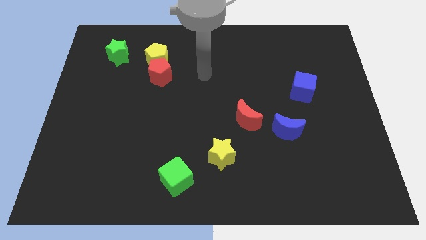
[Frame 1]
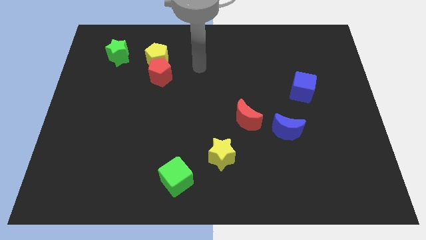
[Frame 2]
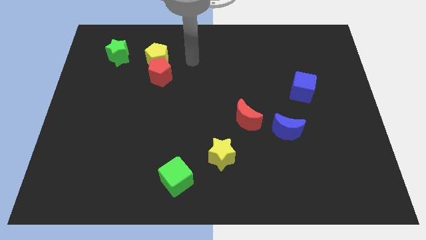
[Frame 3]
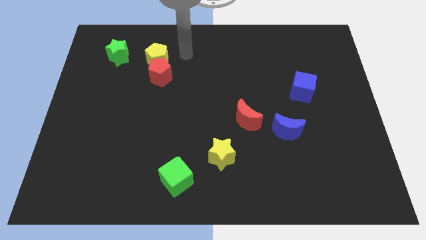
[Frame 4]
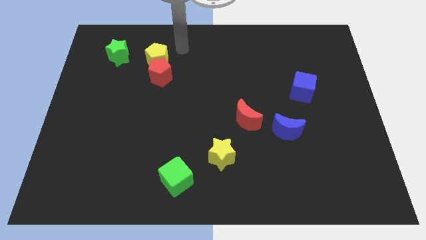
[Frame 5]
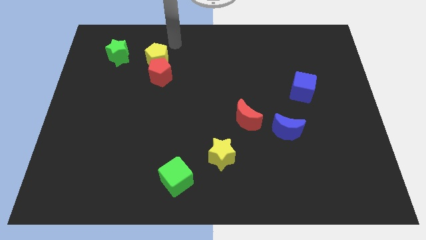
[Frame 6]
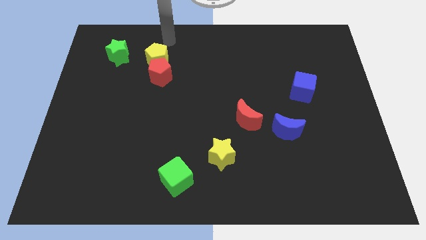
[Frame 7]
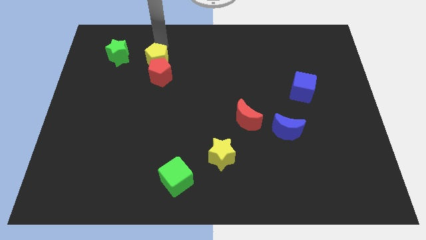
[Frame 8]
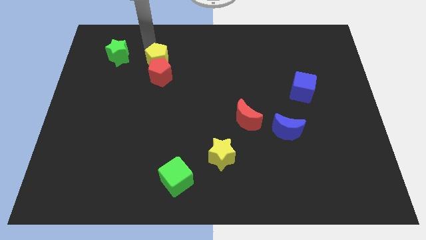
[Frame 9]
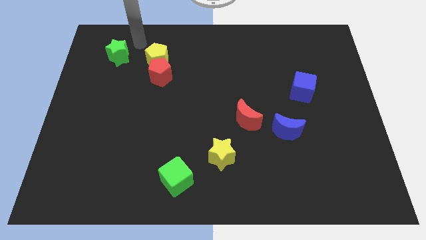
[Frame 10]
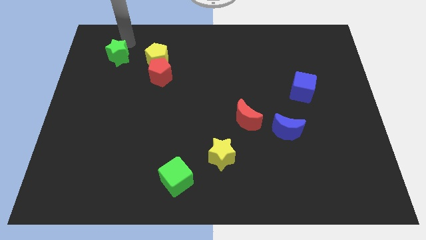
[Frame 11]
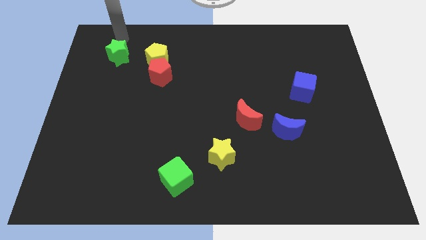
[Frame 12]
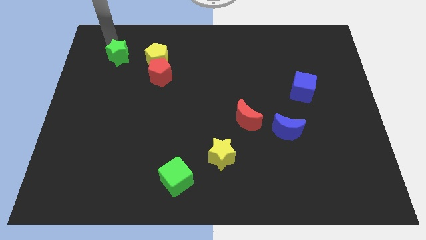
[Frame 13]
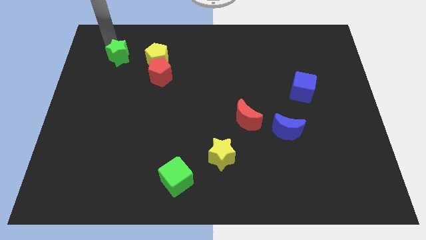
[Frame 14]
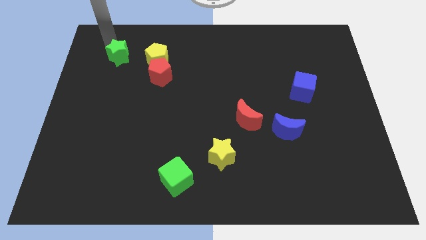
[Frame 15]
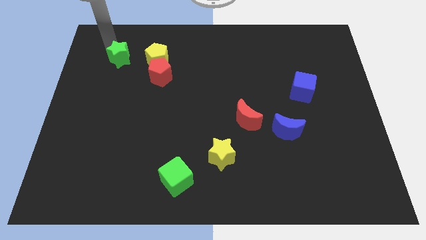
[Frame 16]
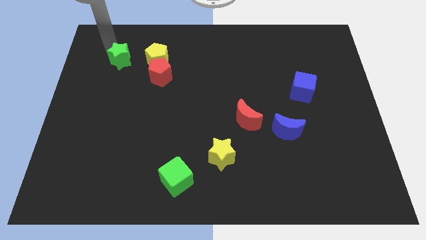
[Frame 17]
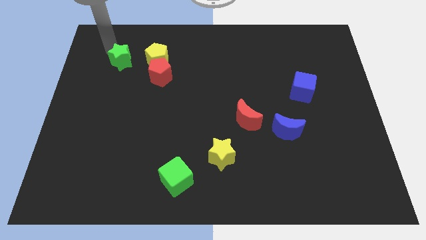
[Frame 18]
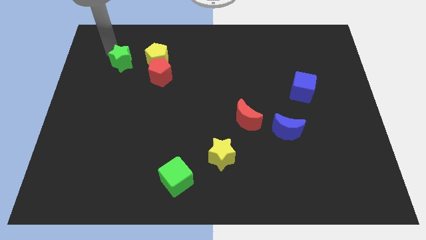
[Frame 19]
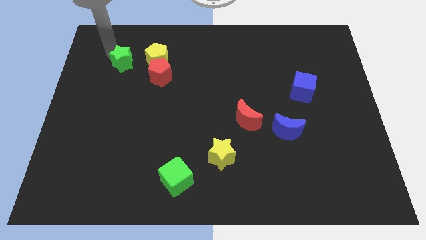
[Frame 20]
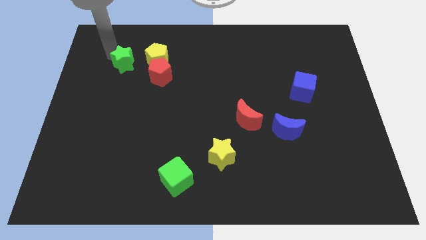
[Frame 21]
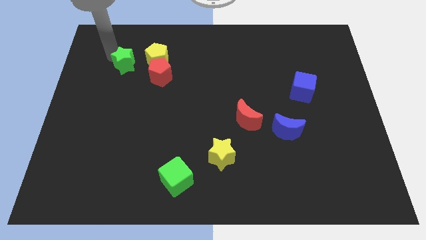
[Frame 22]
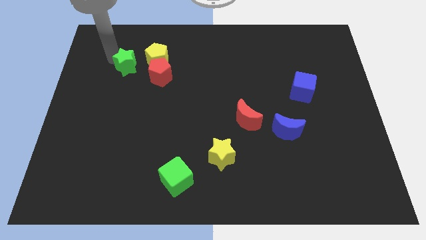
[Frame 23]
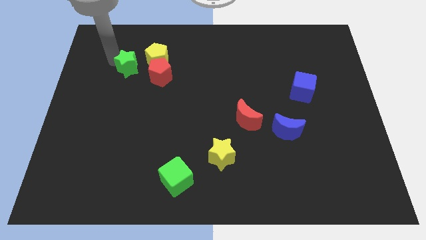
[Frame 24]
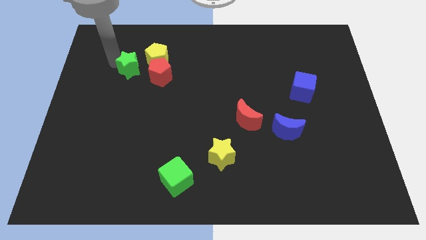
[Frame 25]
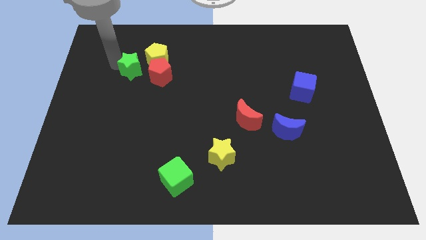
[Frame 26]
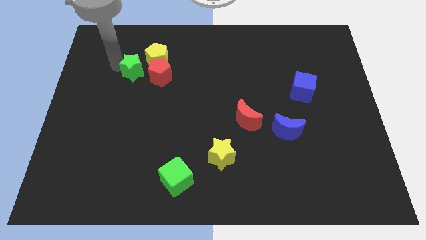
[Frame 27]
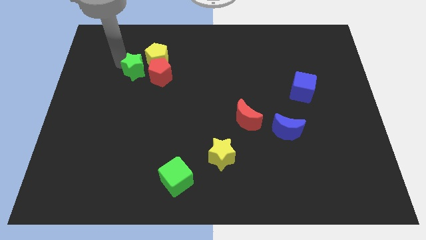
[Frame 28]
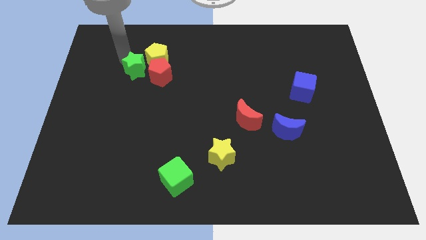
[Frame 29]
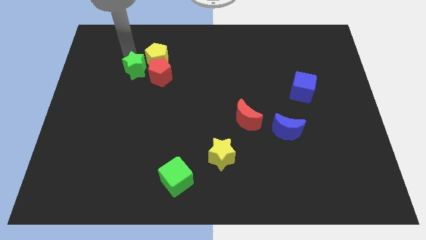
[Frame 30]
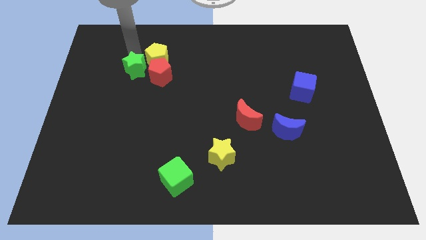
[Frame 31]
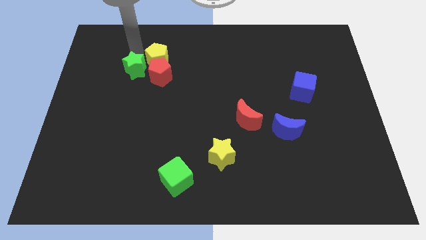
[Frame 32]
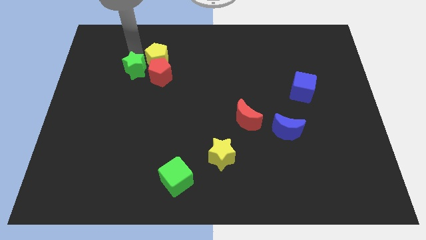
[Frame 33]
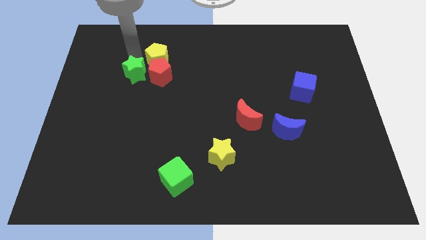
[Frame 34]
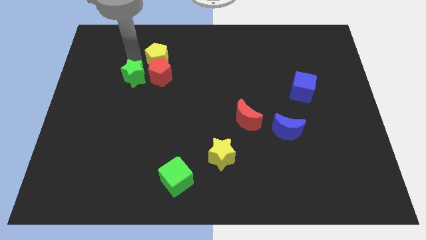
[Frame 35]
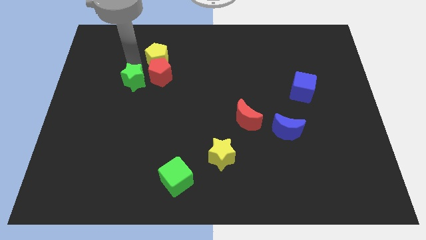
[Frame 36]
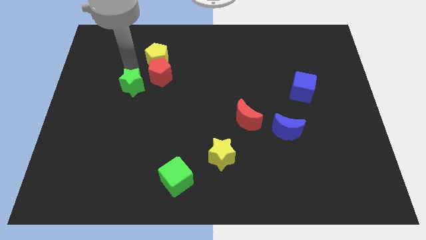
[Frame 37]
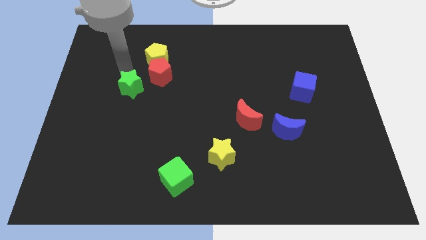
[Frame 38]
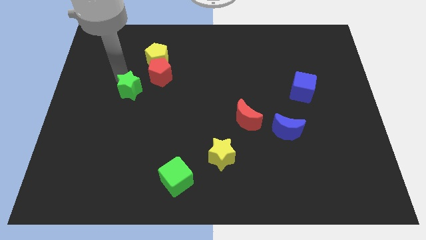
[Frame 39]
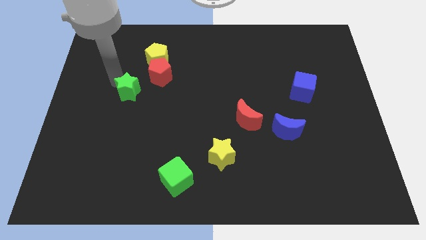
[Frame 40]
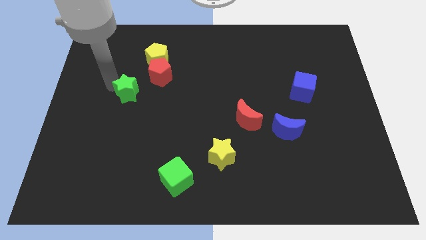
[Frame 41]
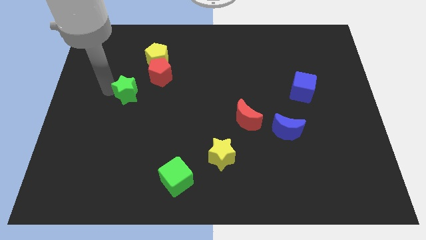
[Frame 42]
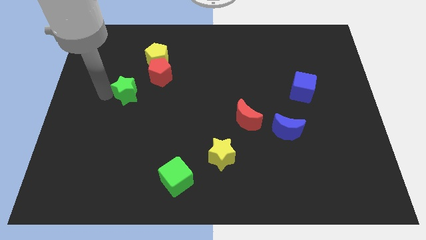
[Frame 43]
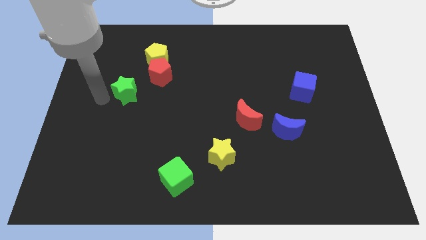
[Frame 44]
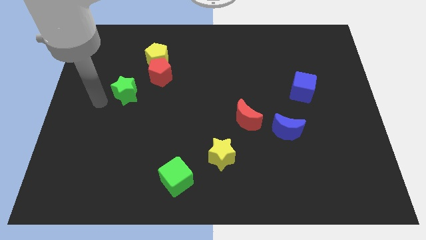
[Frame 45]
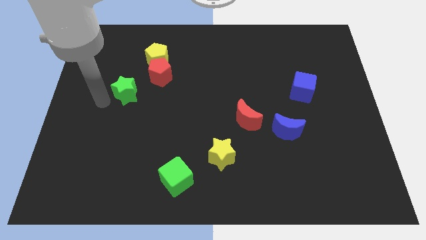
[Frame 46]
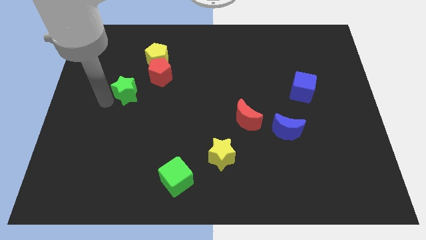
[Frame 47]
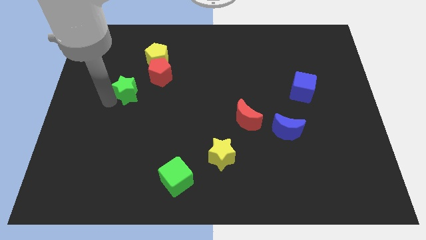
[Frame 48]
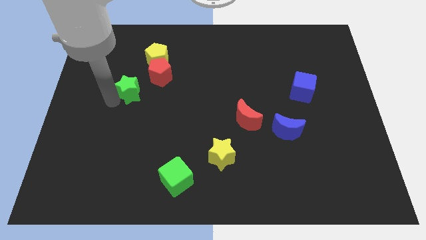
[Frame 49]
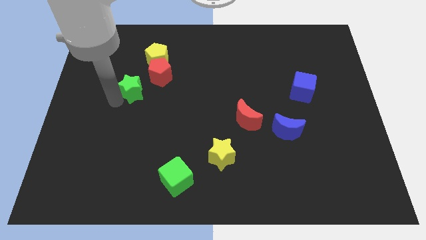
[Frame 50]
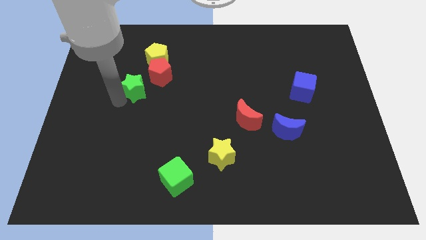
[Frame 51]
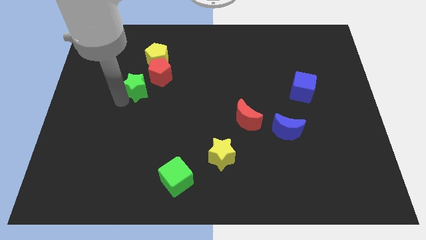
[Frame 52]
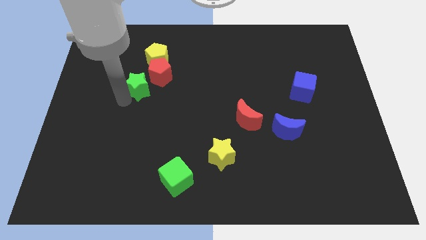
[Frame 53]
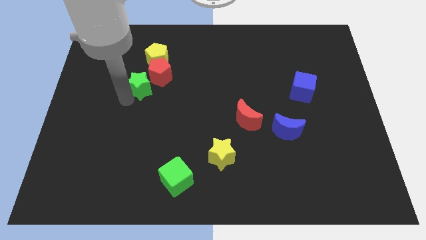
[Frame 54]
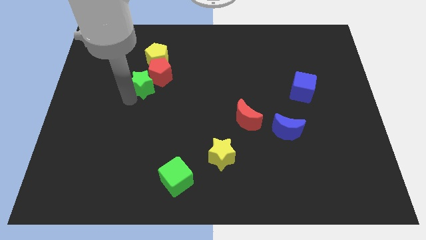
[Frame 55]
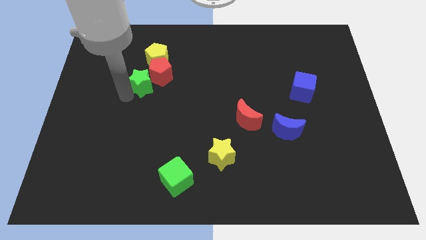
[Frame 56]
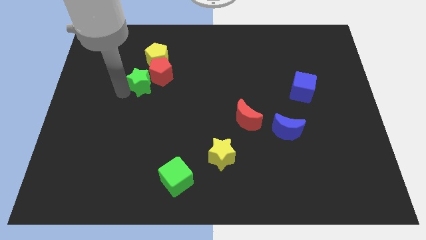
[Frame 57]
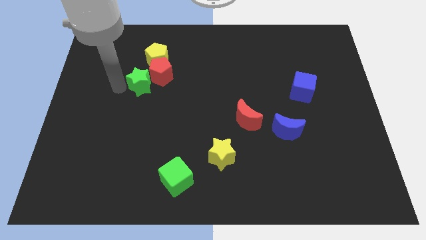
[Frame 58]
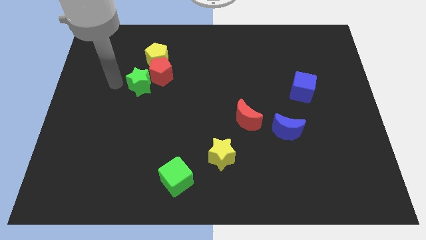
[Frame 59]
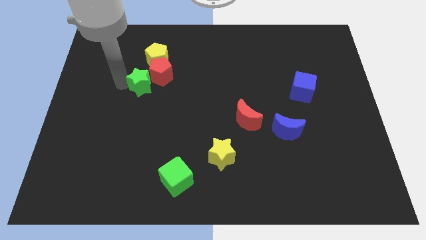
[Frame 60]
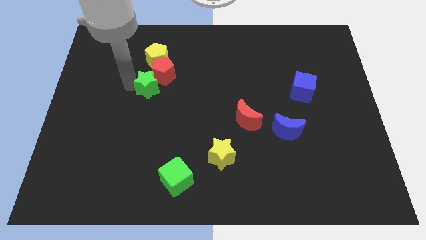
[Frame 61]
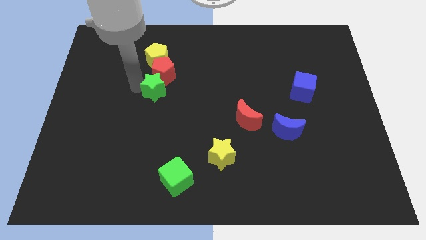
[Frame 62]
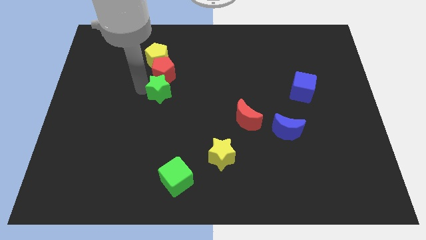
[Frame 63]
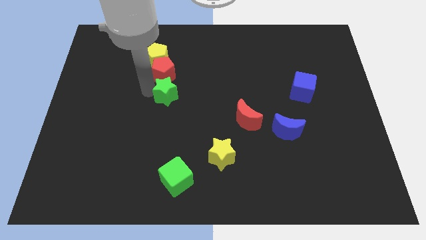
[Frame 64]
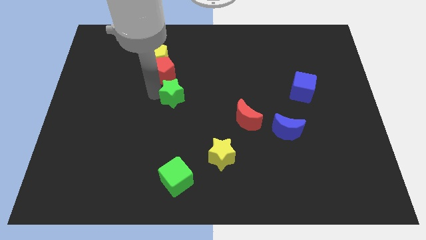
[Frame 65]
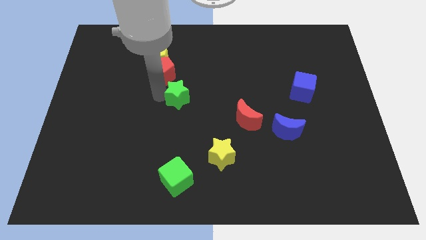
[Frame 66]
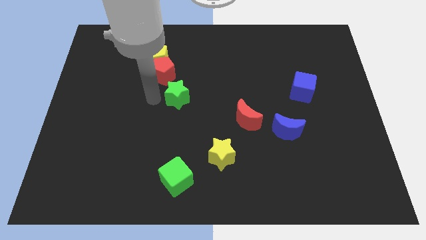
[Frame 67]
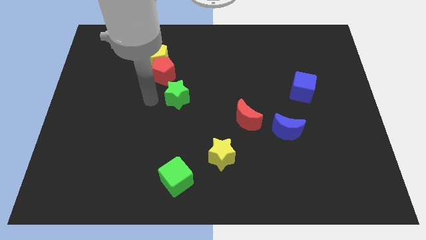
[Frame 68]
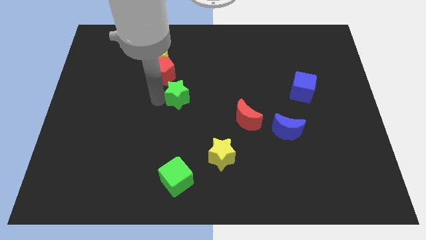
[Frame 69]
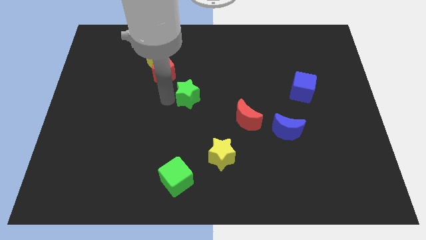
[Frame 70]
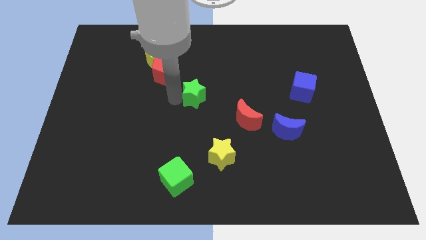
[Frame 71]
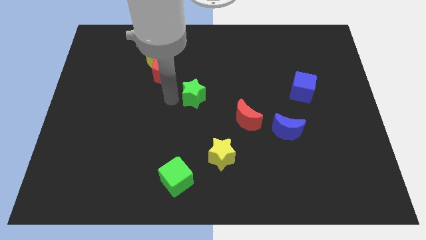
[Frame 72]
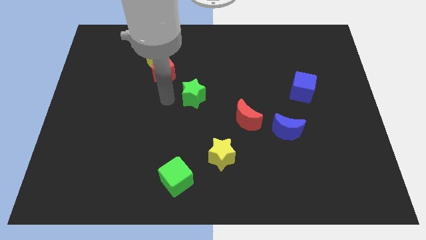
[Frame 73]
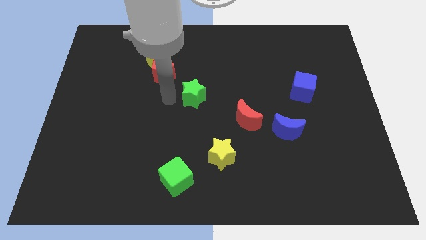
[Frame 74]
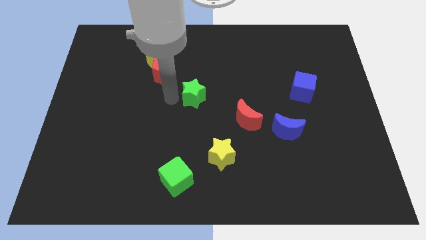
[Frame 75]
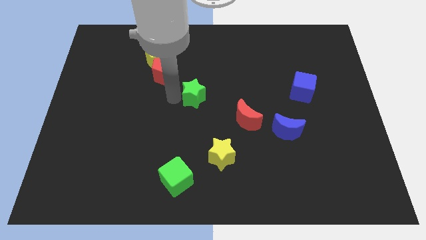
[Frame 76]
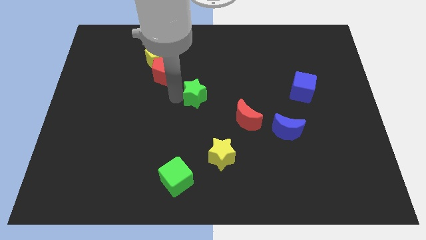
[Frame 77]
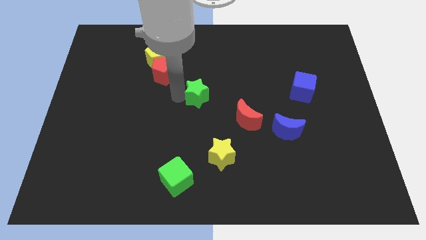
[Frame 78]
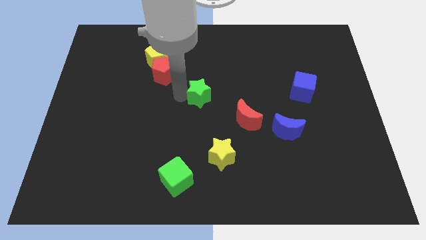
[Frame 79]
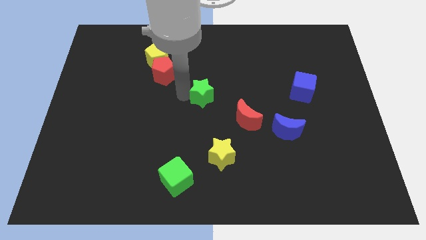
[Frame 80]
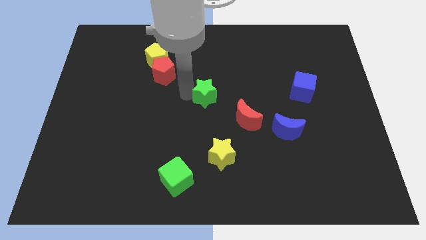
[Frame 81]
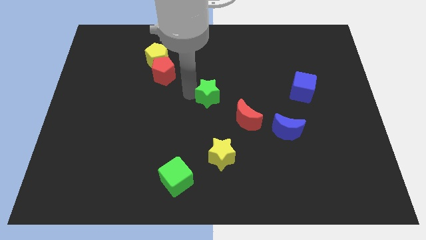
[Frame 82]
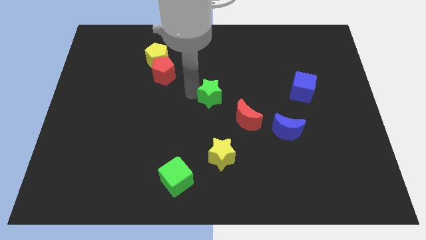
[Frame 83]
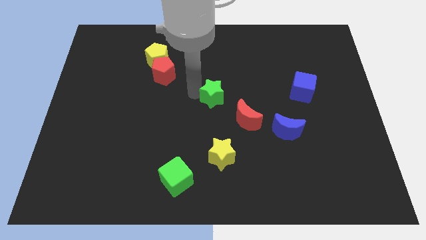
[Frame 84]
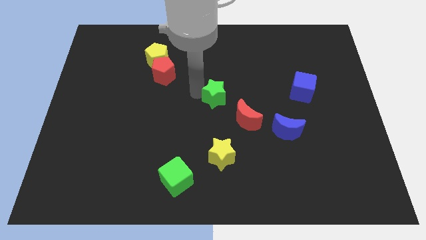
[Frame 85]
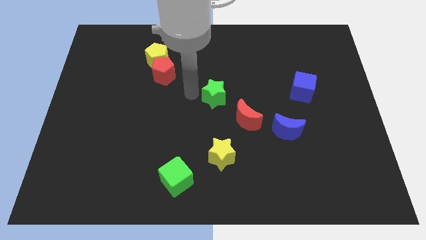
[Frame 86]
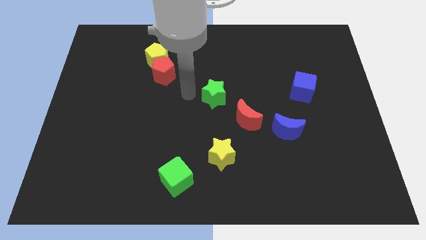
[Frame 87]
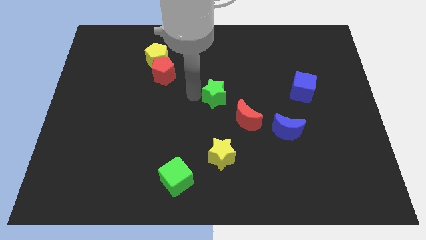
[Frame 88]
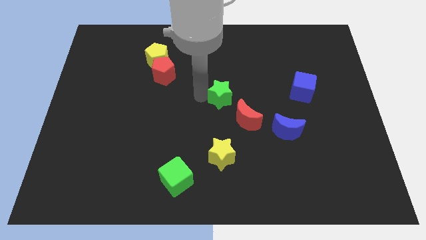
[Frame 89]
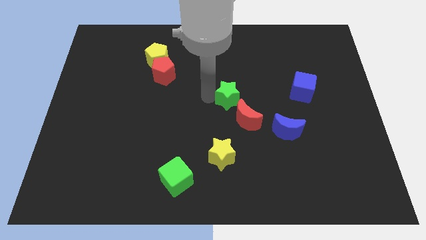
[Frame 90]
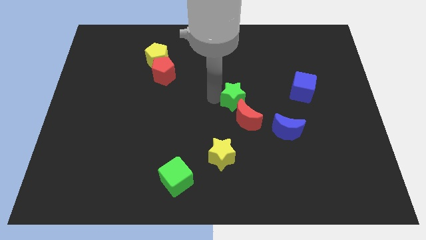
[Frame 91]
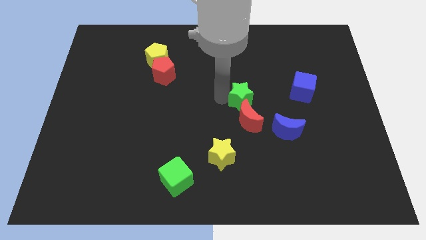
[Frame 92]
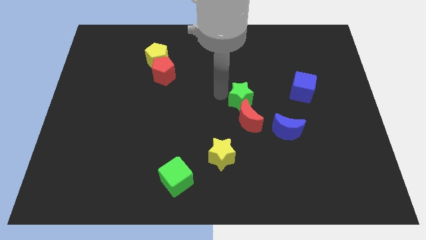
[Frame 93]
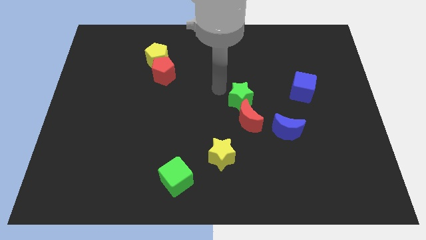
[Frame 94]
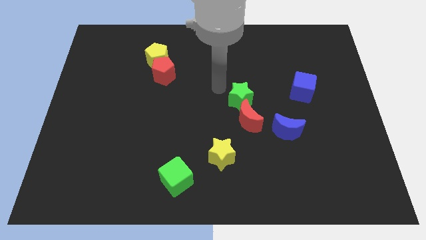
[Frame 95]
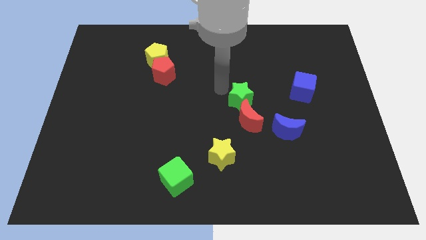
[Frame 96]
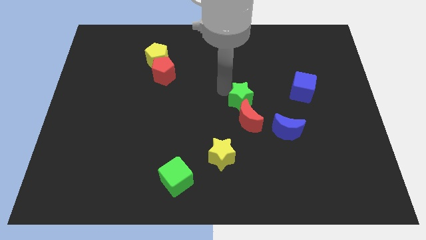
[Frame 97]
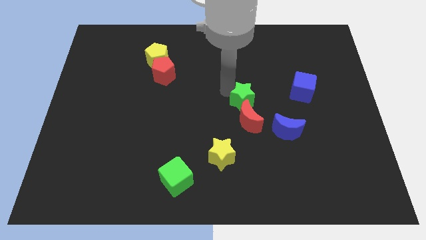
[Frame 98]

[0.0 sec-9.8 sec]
push the green star to the top left side of the blue moon
